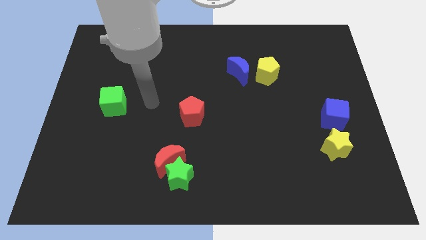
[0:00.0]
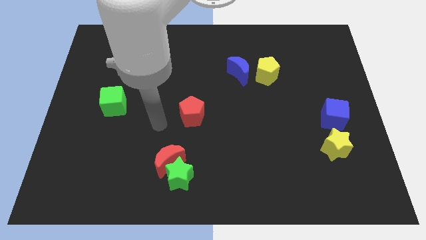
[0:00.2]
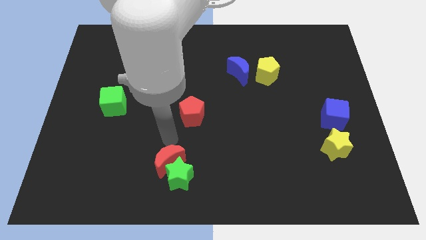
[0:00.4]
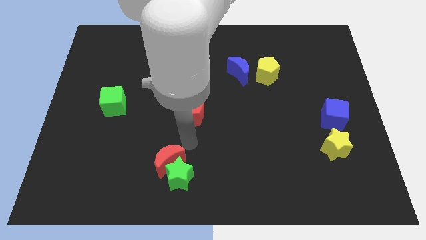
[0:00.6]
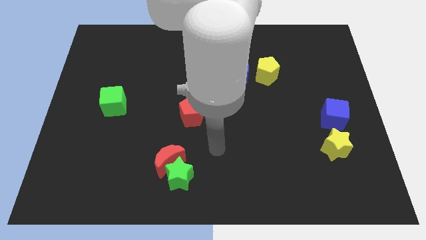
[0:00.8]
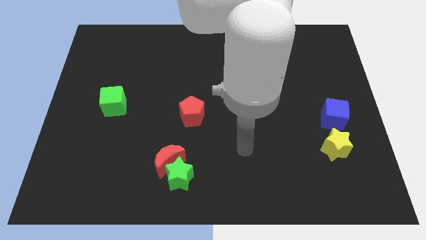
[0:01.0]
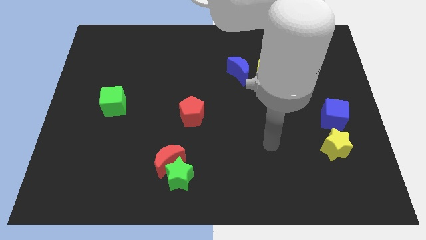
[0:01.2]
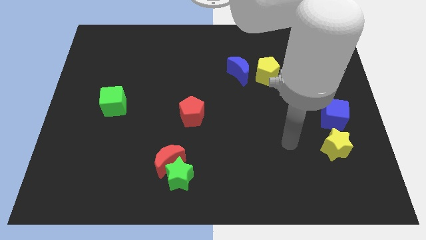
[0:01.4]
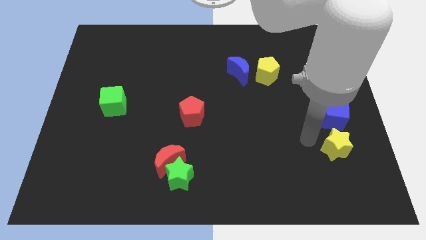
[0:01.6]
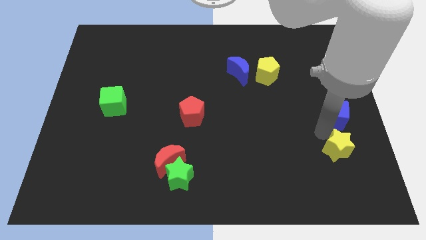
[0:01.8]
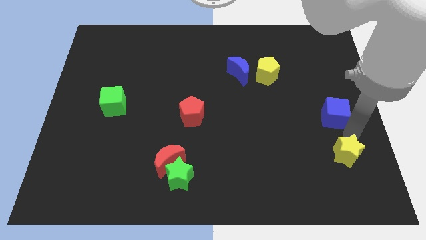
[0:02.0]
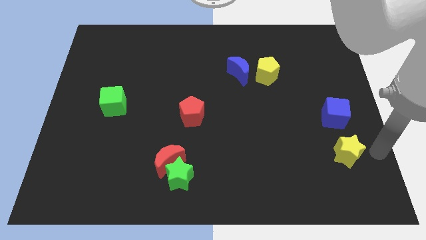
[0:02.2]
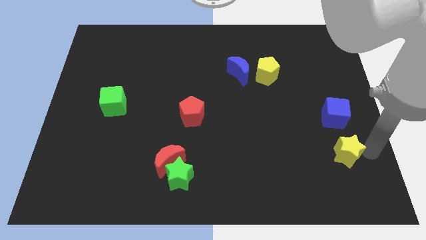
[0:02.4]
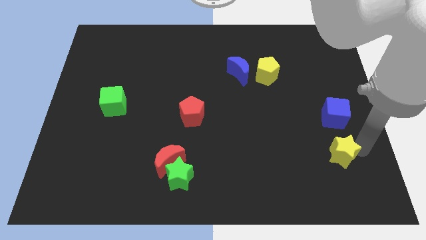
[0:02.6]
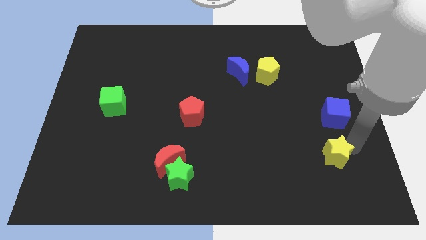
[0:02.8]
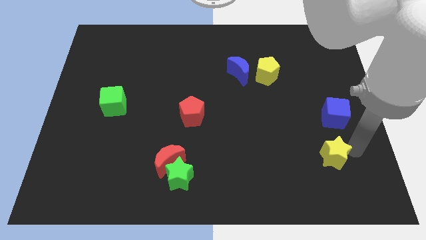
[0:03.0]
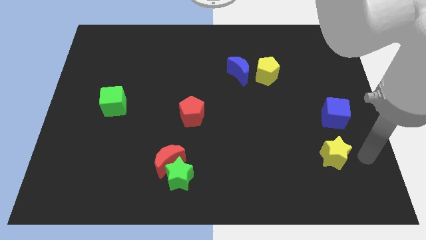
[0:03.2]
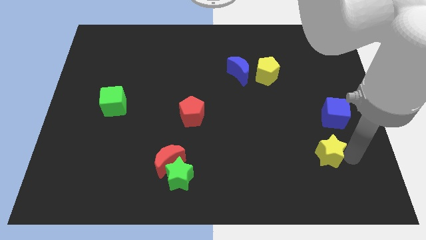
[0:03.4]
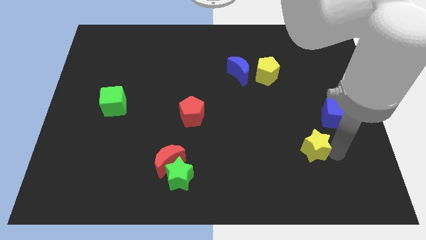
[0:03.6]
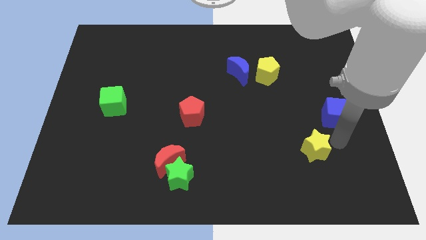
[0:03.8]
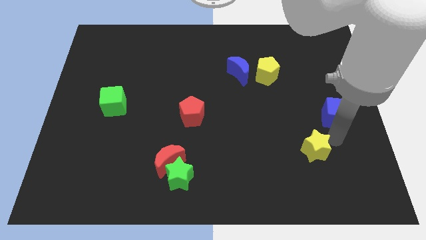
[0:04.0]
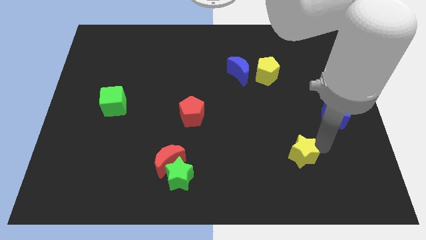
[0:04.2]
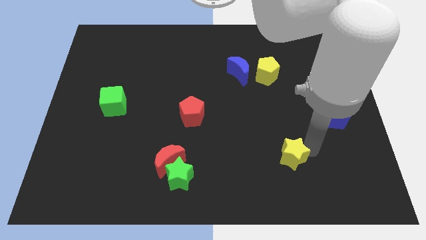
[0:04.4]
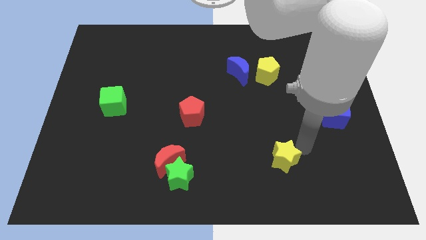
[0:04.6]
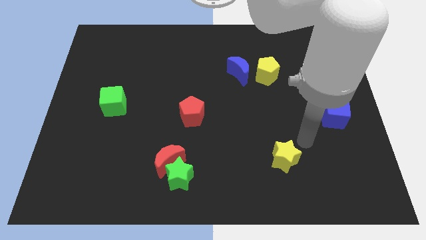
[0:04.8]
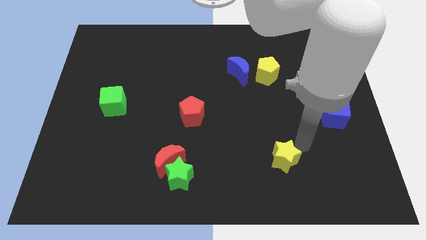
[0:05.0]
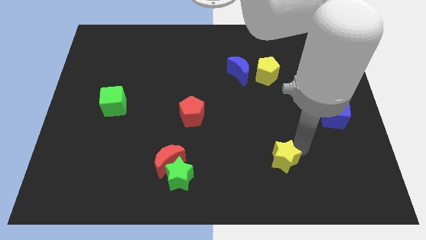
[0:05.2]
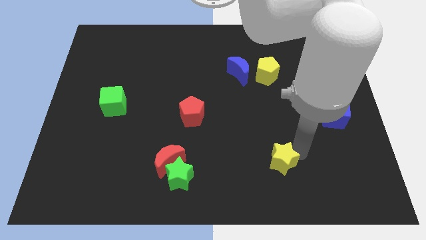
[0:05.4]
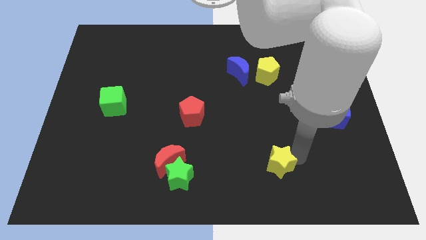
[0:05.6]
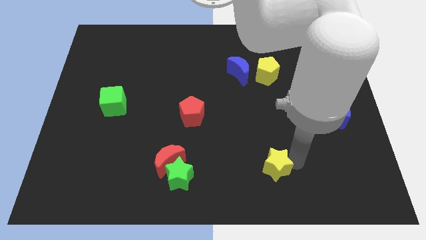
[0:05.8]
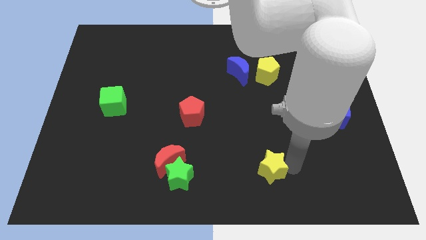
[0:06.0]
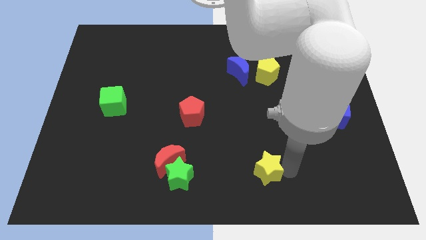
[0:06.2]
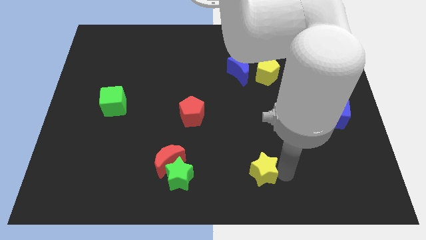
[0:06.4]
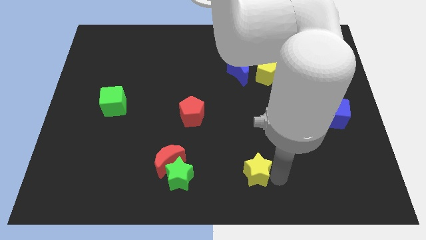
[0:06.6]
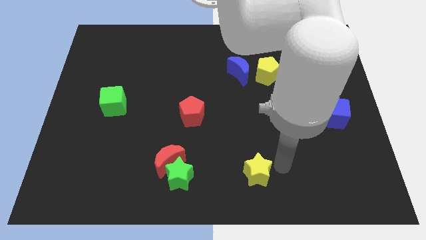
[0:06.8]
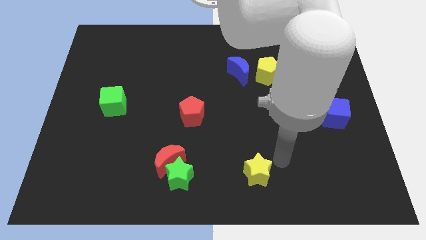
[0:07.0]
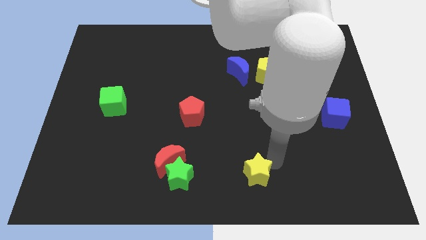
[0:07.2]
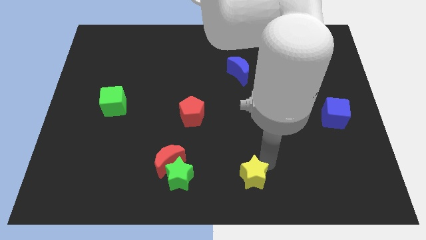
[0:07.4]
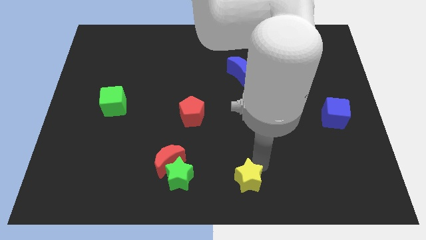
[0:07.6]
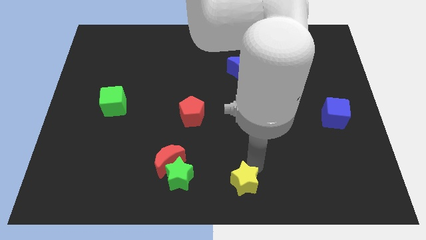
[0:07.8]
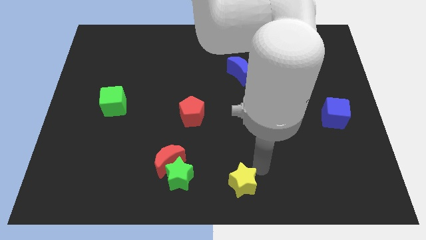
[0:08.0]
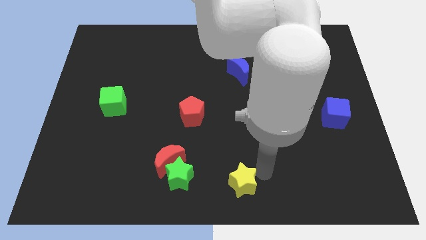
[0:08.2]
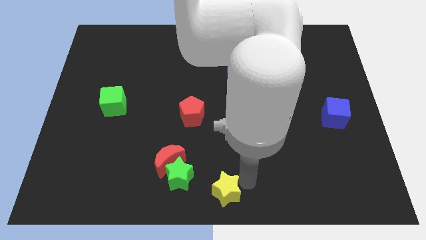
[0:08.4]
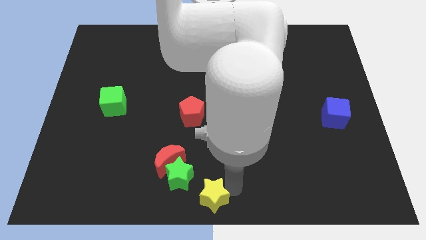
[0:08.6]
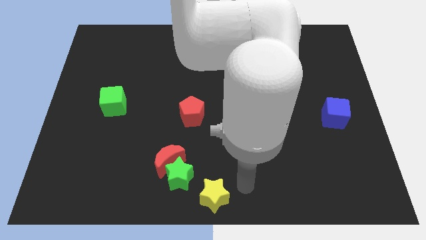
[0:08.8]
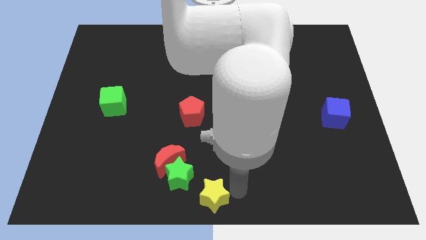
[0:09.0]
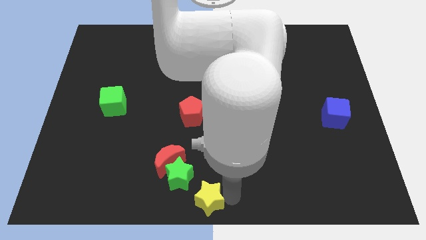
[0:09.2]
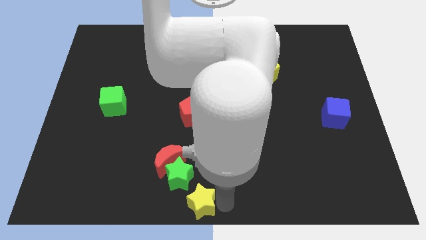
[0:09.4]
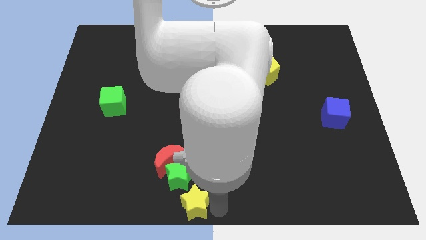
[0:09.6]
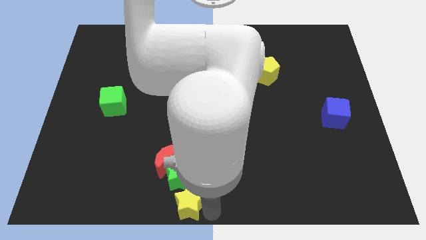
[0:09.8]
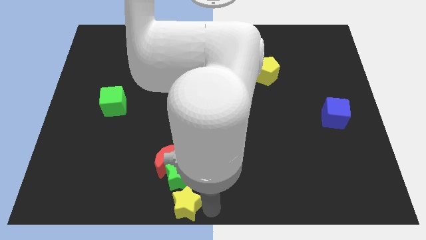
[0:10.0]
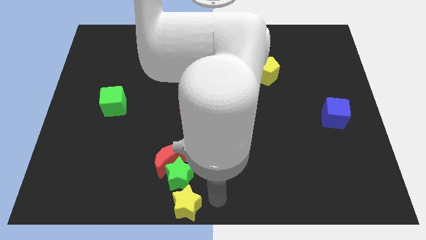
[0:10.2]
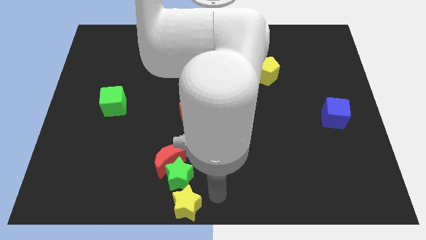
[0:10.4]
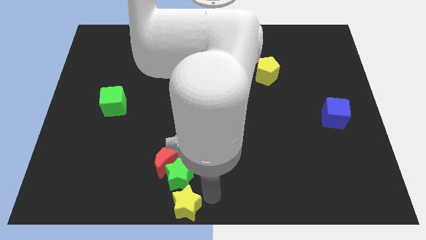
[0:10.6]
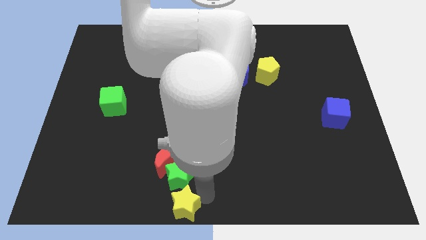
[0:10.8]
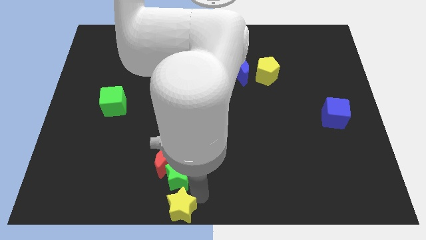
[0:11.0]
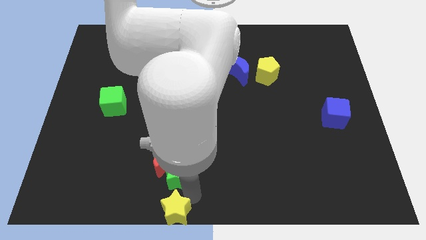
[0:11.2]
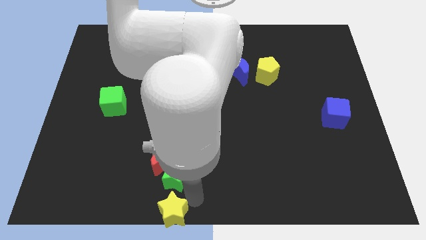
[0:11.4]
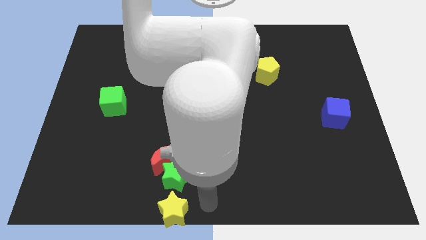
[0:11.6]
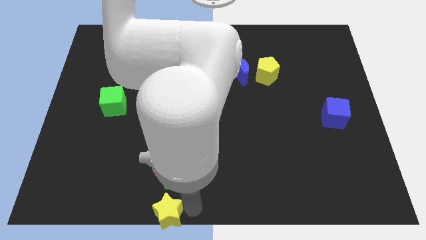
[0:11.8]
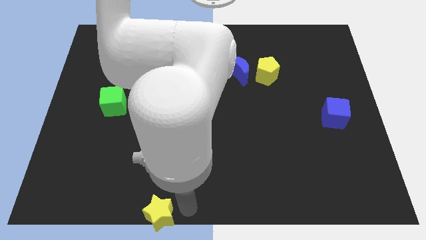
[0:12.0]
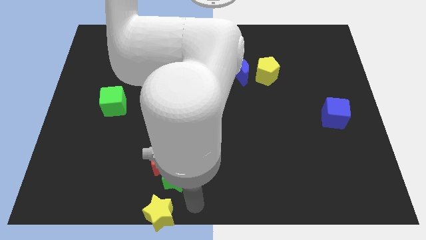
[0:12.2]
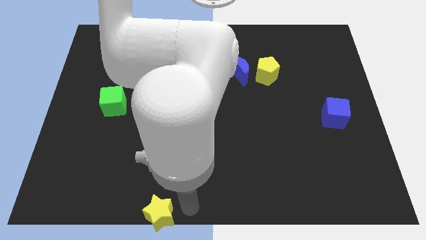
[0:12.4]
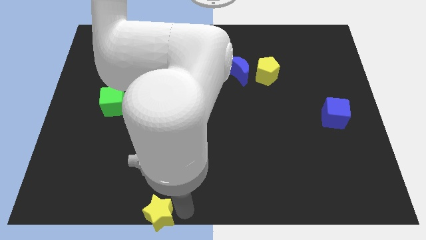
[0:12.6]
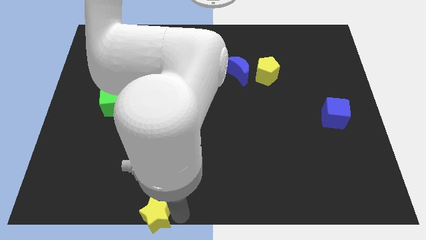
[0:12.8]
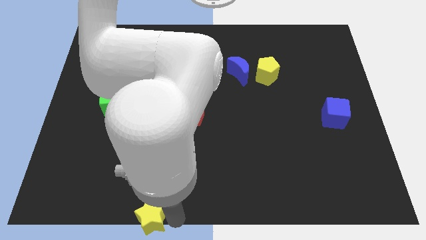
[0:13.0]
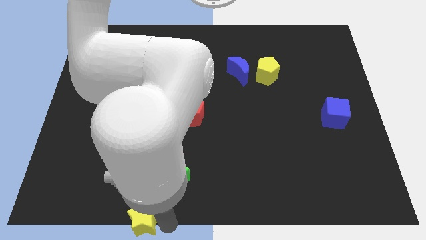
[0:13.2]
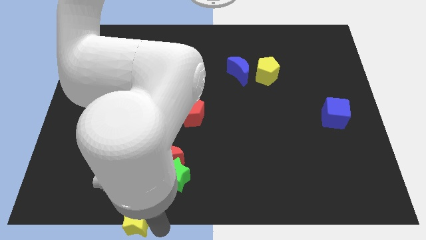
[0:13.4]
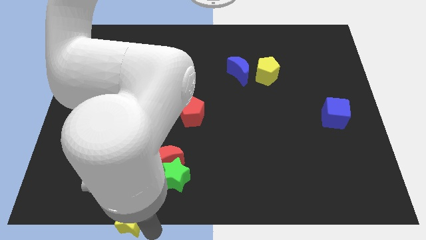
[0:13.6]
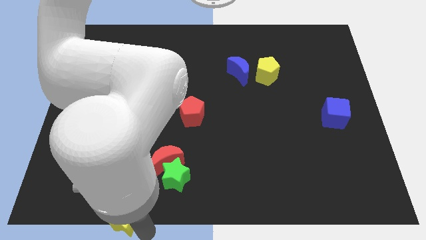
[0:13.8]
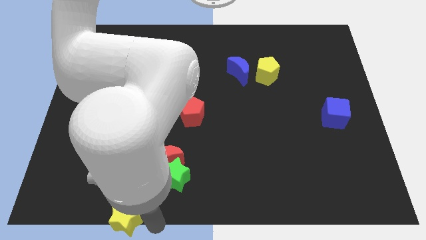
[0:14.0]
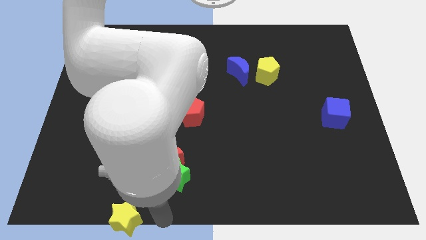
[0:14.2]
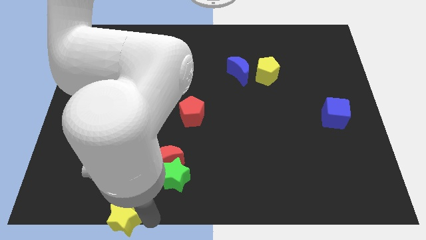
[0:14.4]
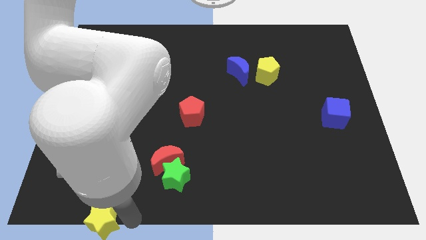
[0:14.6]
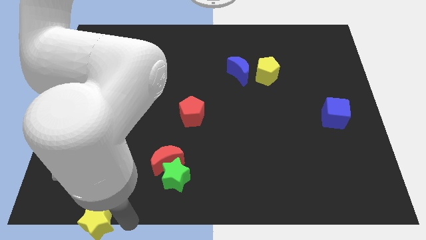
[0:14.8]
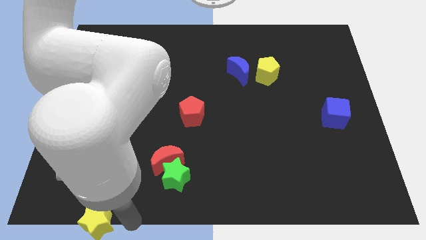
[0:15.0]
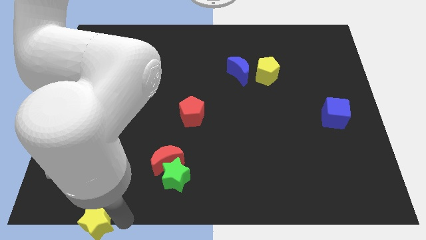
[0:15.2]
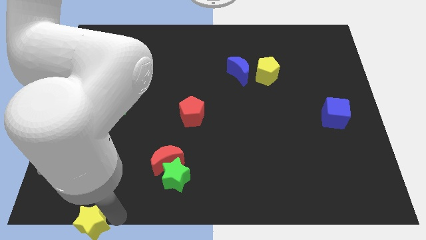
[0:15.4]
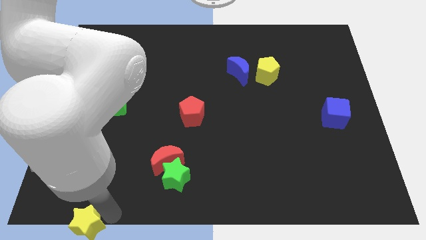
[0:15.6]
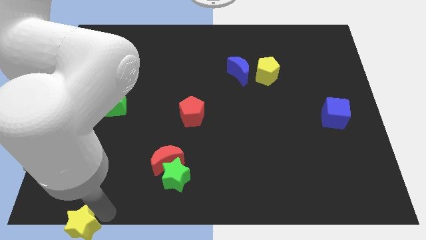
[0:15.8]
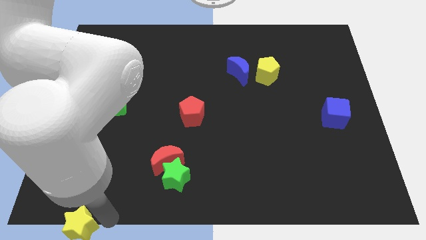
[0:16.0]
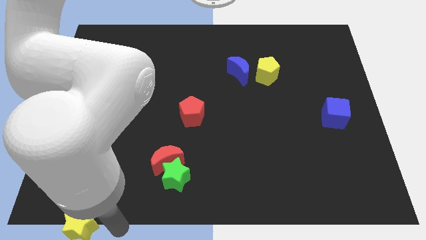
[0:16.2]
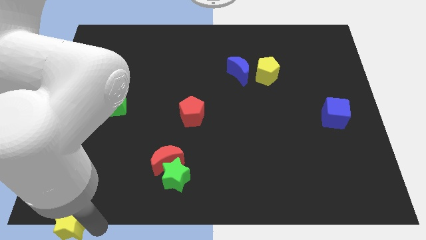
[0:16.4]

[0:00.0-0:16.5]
slide the yellow star to the bottom left of the board
